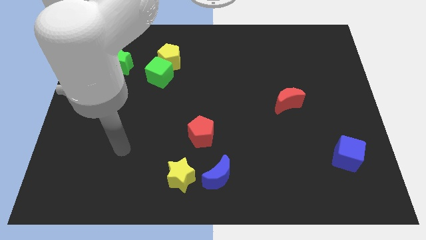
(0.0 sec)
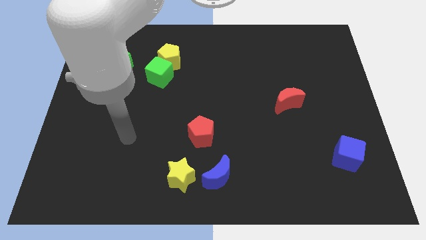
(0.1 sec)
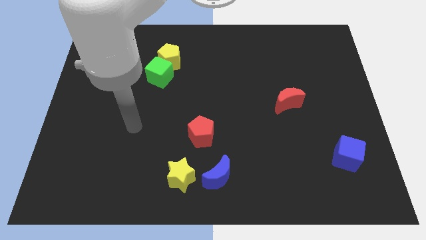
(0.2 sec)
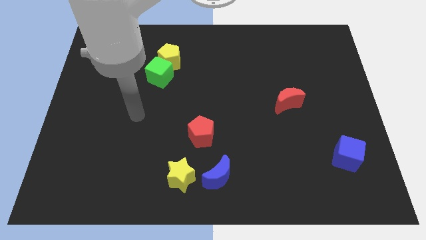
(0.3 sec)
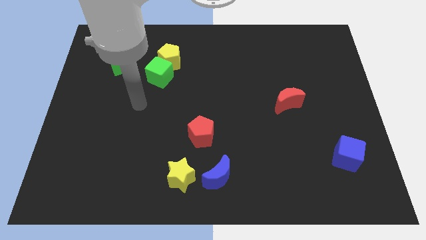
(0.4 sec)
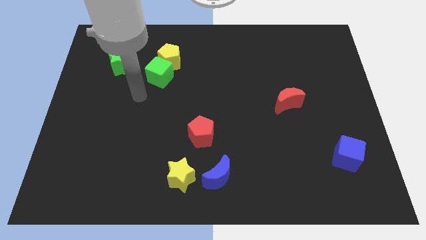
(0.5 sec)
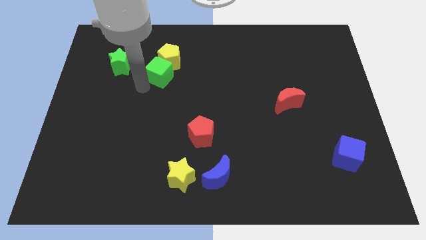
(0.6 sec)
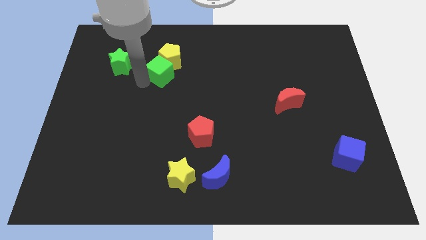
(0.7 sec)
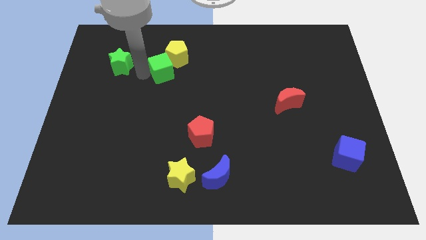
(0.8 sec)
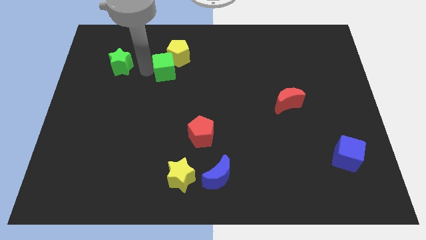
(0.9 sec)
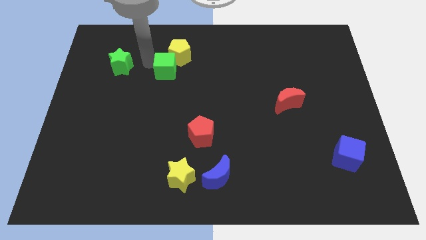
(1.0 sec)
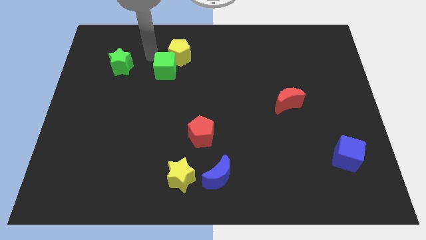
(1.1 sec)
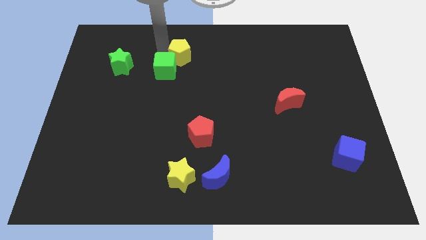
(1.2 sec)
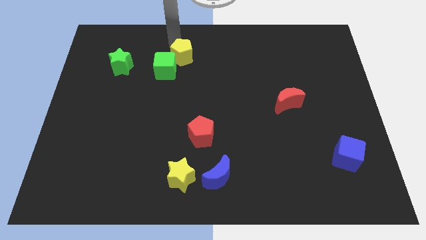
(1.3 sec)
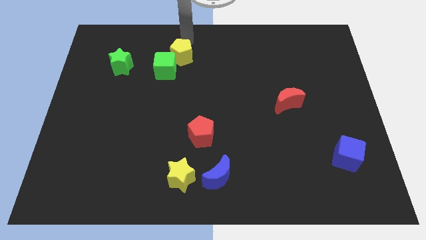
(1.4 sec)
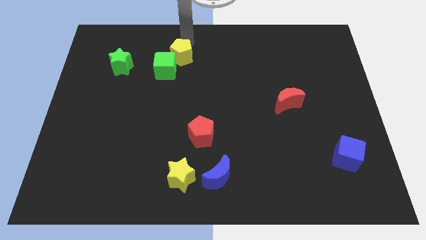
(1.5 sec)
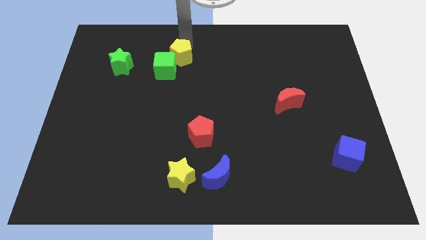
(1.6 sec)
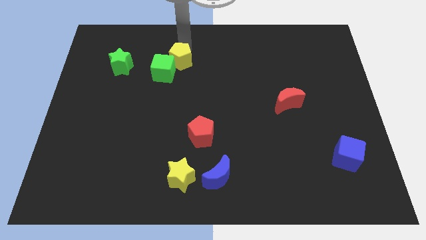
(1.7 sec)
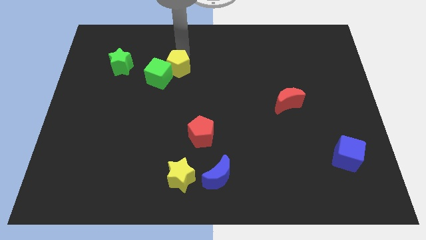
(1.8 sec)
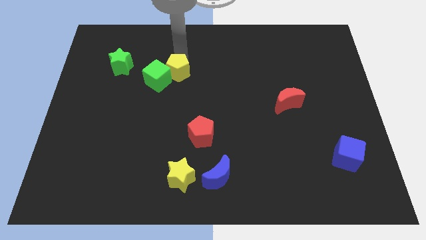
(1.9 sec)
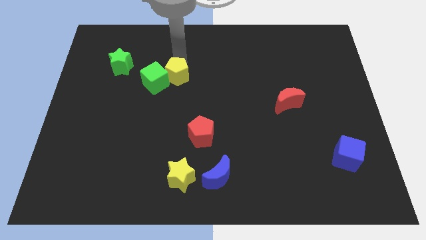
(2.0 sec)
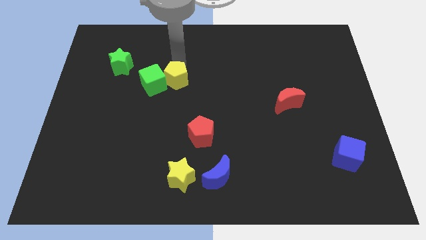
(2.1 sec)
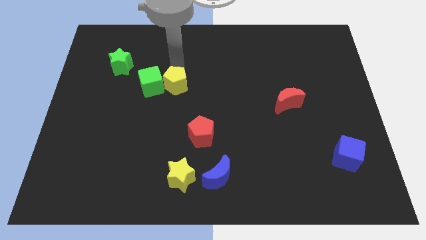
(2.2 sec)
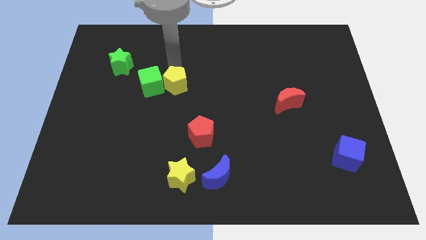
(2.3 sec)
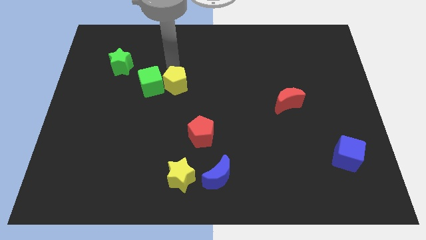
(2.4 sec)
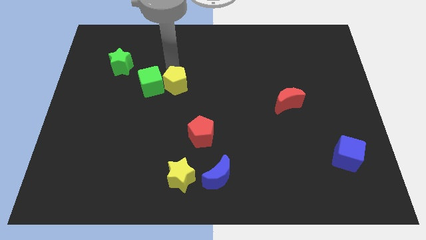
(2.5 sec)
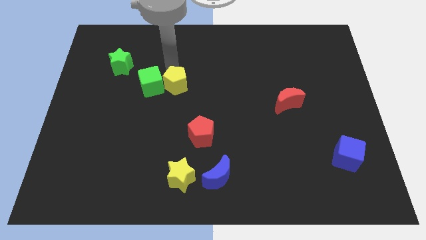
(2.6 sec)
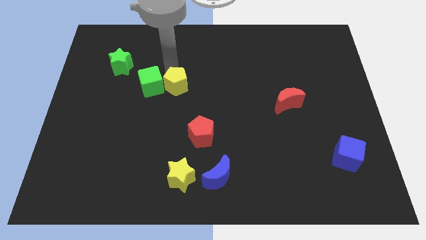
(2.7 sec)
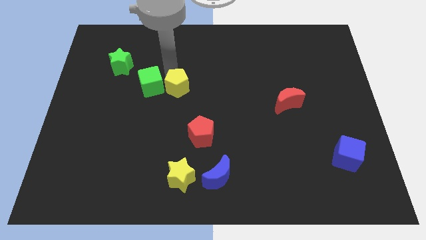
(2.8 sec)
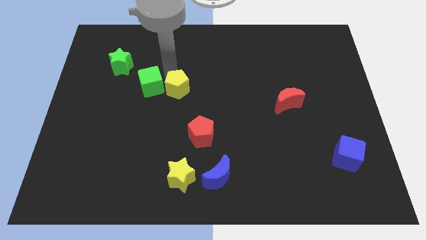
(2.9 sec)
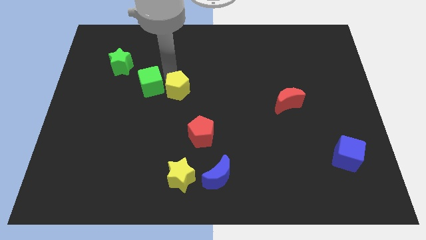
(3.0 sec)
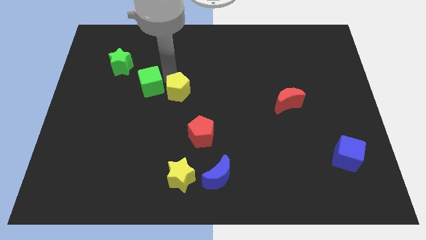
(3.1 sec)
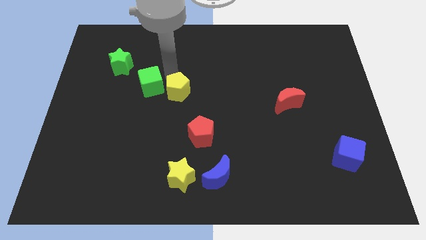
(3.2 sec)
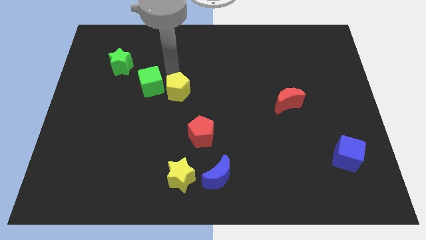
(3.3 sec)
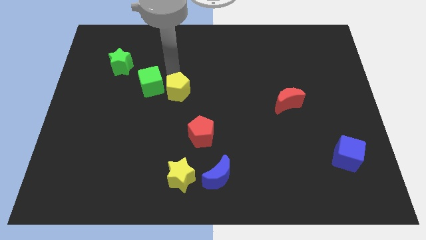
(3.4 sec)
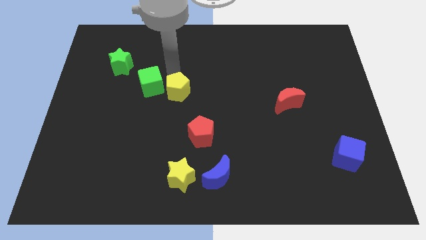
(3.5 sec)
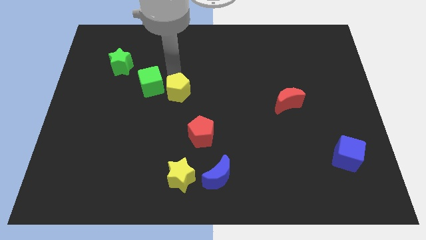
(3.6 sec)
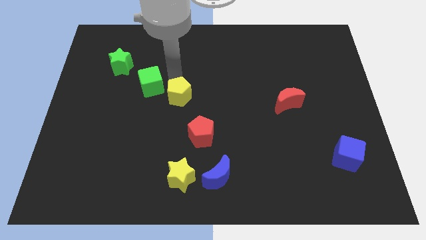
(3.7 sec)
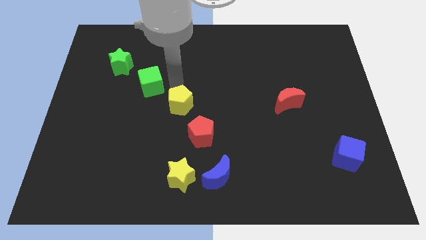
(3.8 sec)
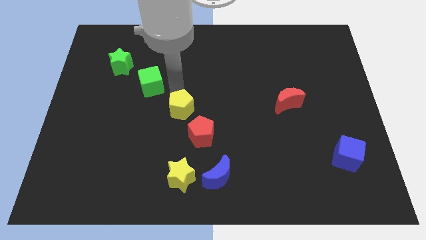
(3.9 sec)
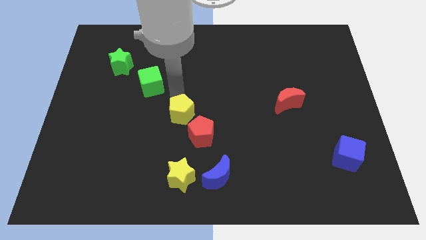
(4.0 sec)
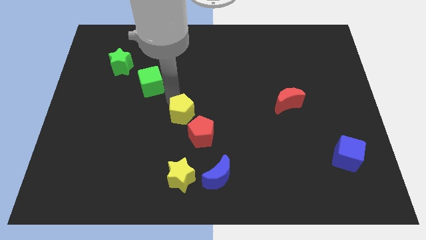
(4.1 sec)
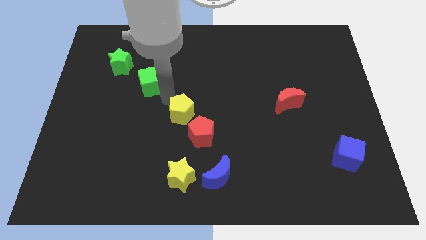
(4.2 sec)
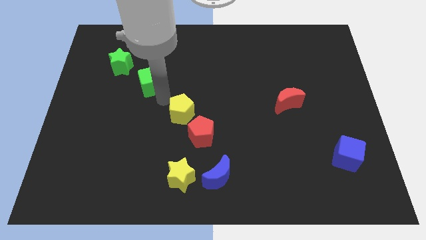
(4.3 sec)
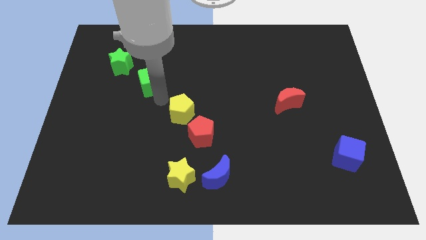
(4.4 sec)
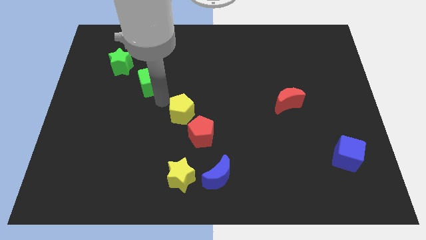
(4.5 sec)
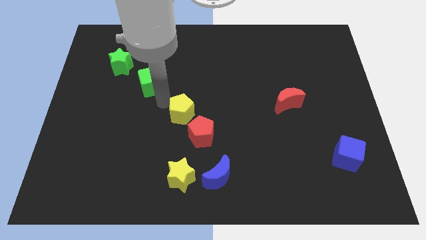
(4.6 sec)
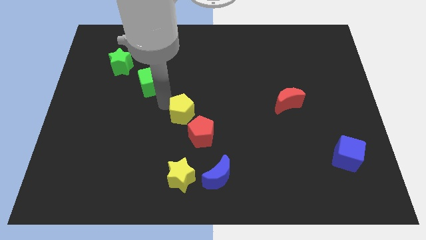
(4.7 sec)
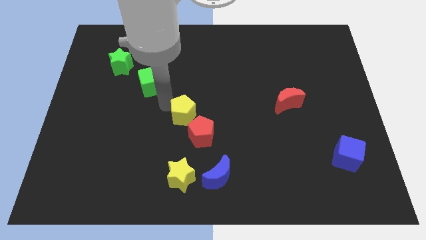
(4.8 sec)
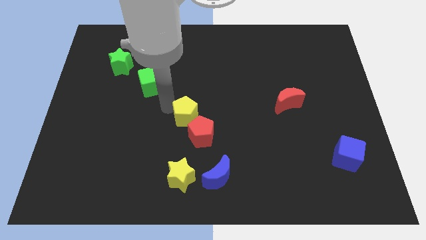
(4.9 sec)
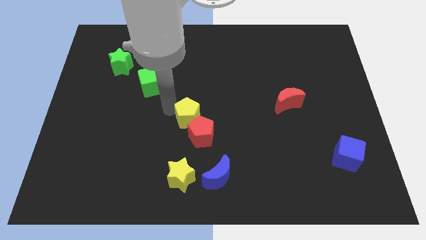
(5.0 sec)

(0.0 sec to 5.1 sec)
move the yellow pentagon close to the red pentagon

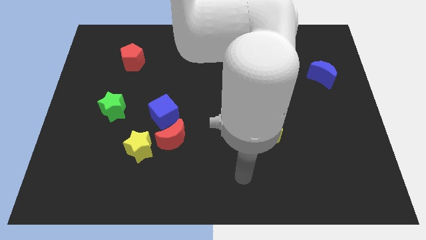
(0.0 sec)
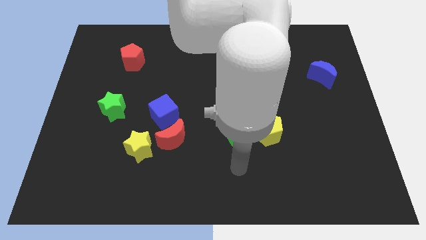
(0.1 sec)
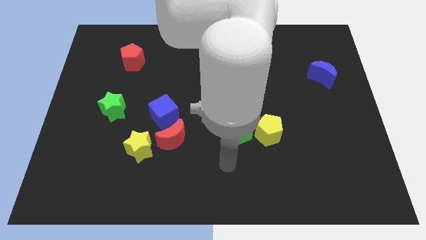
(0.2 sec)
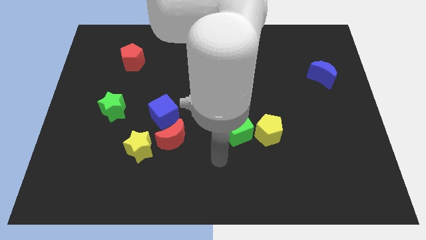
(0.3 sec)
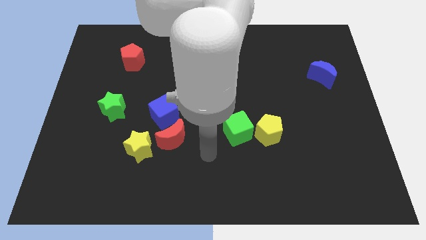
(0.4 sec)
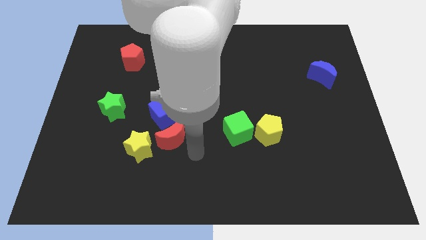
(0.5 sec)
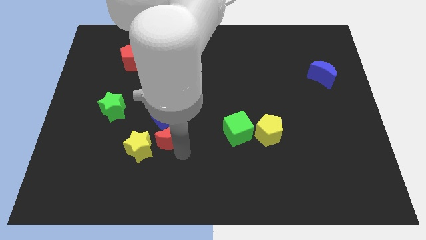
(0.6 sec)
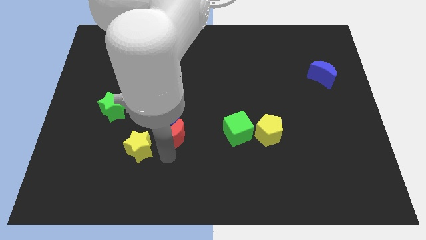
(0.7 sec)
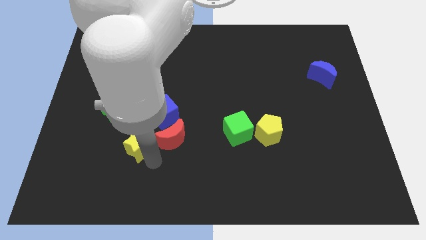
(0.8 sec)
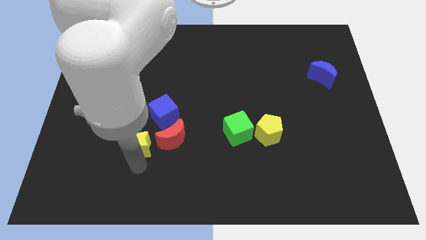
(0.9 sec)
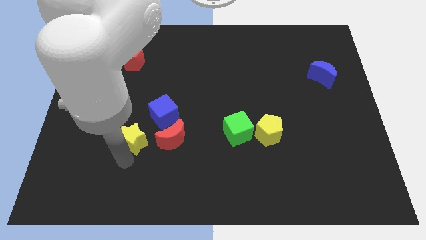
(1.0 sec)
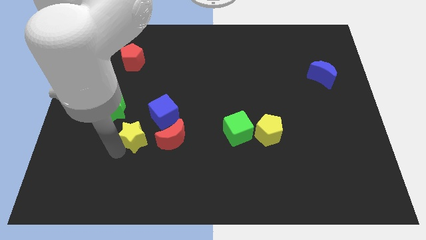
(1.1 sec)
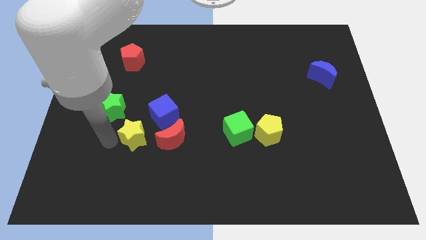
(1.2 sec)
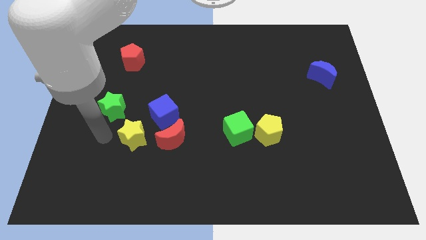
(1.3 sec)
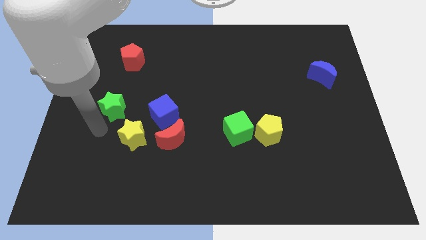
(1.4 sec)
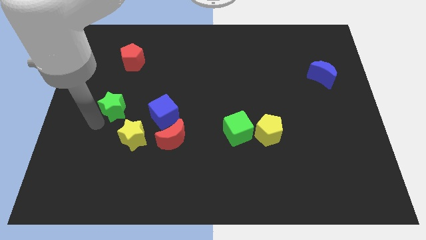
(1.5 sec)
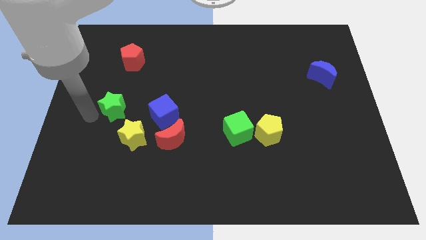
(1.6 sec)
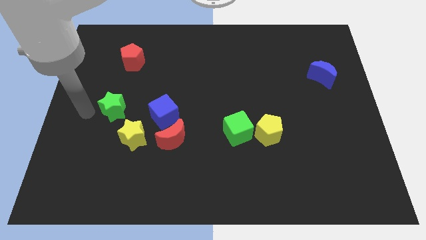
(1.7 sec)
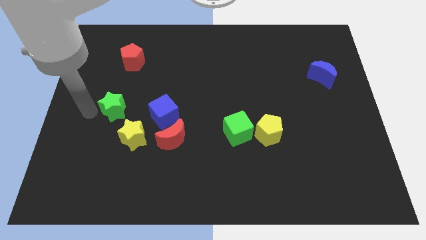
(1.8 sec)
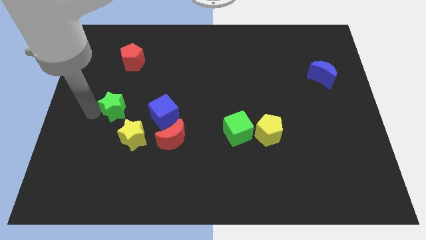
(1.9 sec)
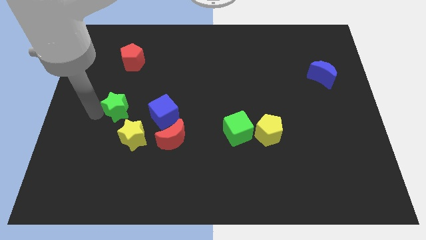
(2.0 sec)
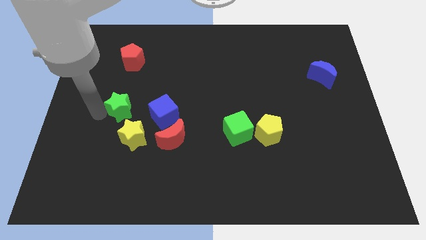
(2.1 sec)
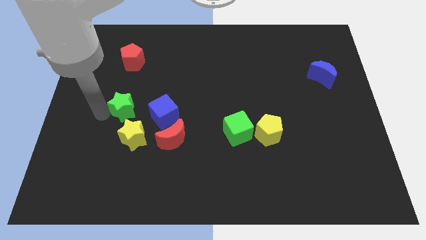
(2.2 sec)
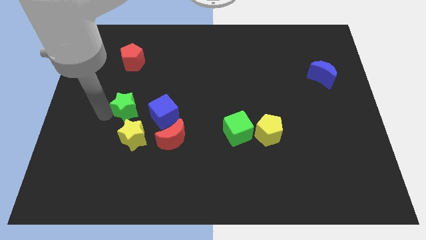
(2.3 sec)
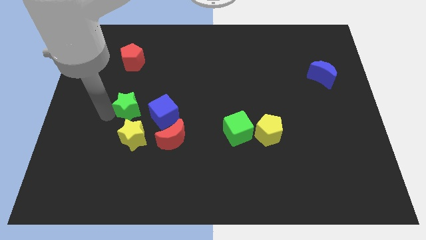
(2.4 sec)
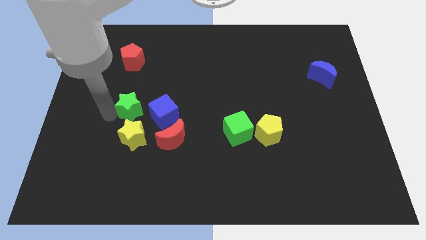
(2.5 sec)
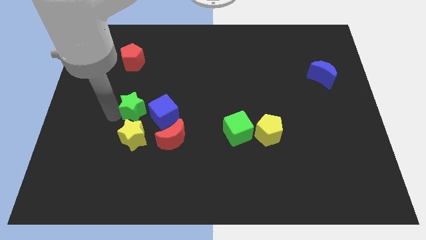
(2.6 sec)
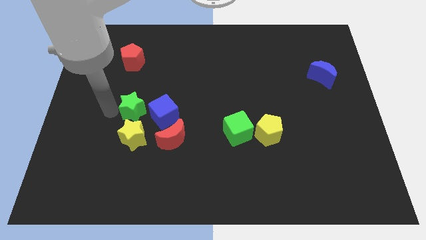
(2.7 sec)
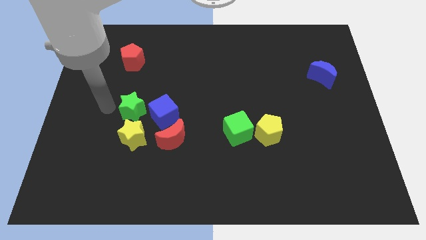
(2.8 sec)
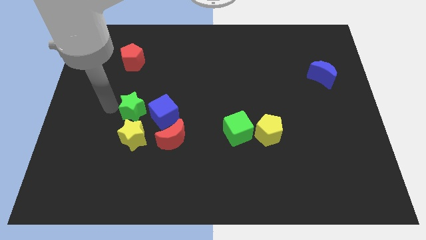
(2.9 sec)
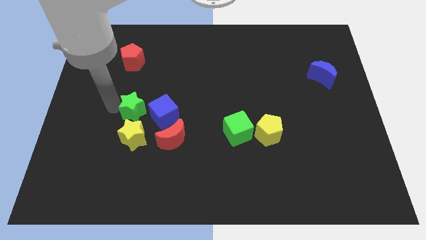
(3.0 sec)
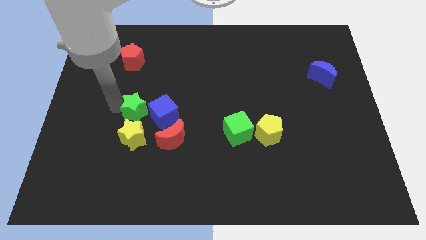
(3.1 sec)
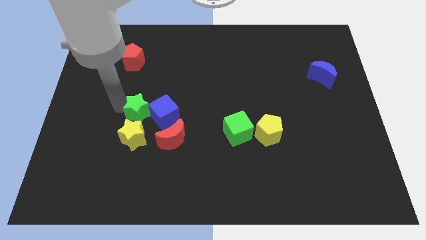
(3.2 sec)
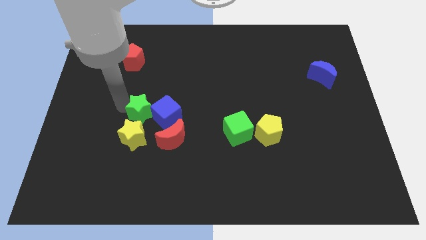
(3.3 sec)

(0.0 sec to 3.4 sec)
put the green star to the blue cube
